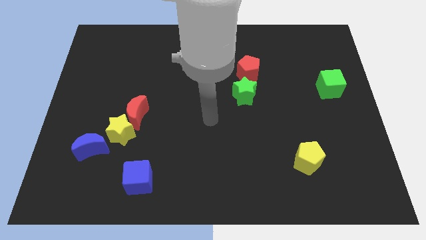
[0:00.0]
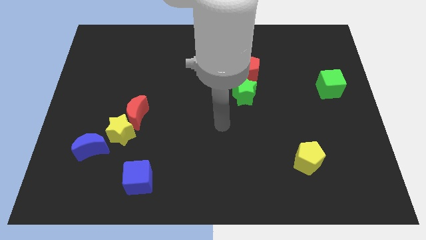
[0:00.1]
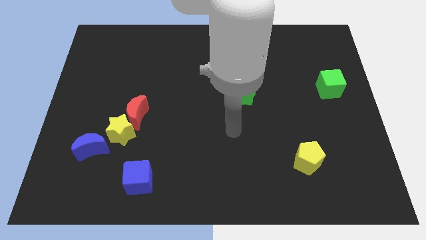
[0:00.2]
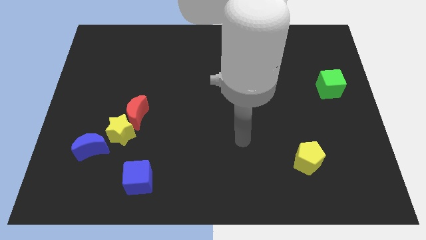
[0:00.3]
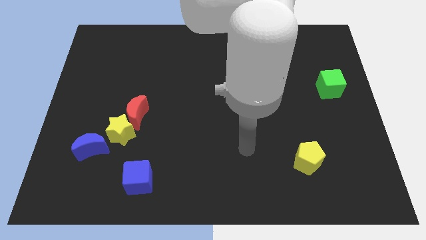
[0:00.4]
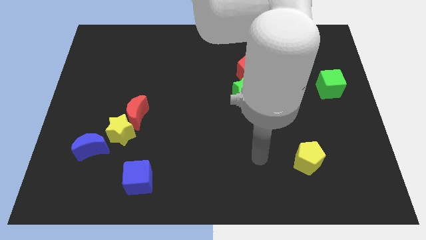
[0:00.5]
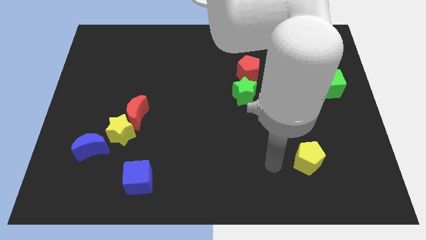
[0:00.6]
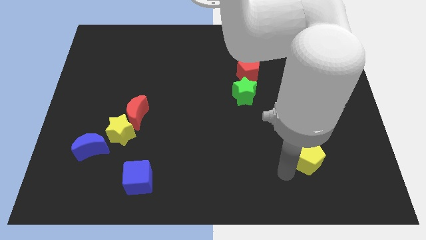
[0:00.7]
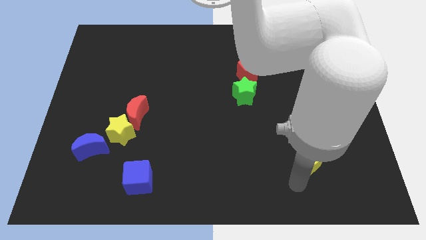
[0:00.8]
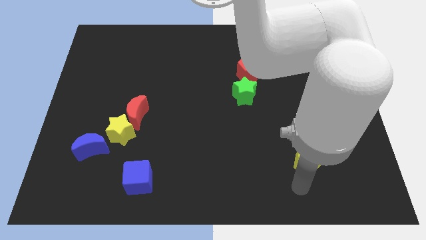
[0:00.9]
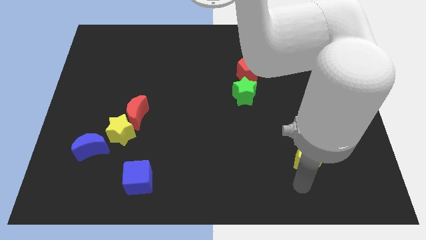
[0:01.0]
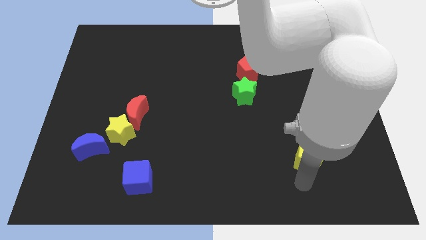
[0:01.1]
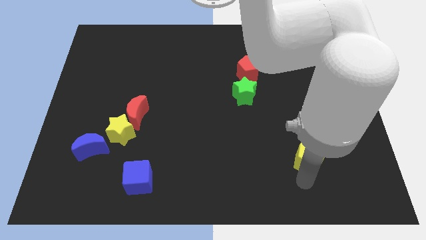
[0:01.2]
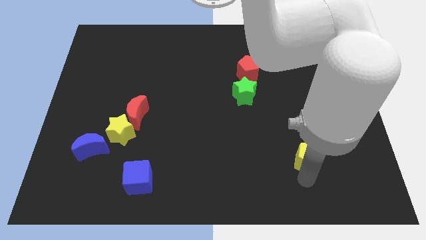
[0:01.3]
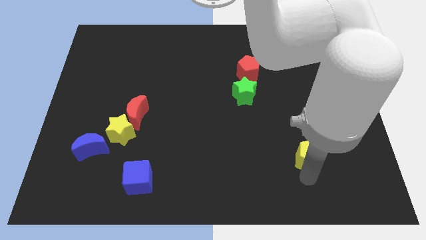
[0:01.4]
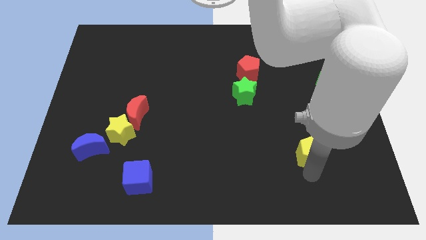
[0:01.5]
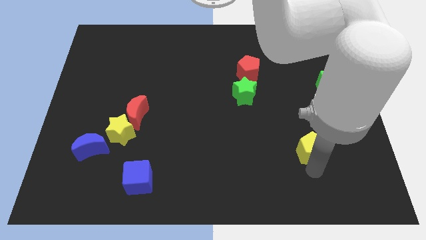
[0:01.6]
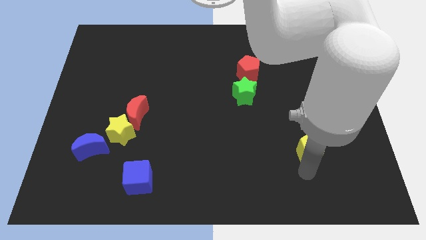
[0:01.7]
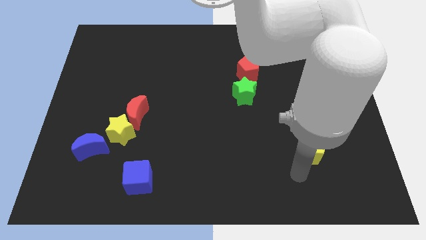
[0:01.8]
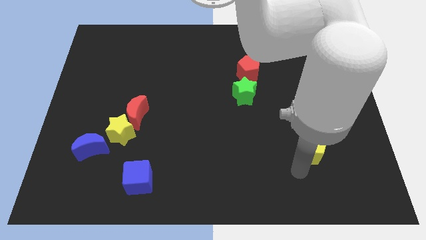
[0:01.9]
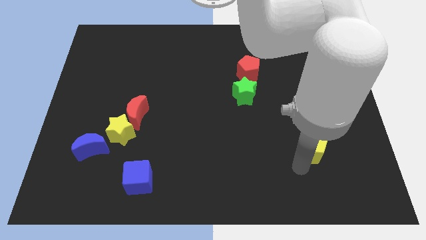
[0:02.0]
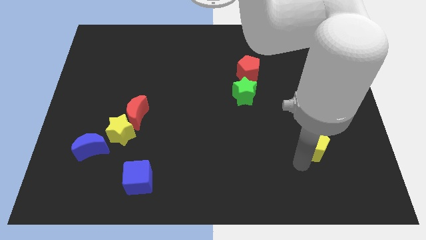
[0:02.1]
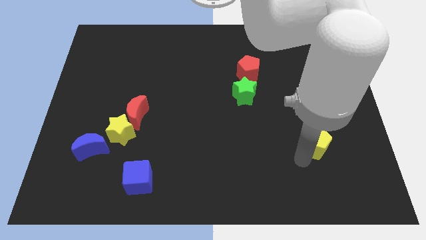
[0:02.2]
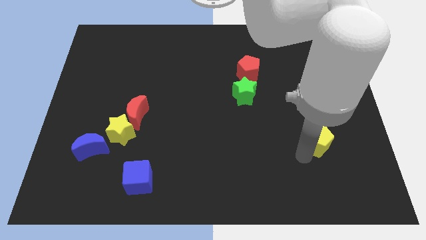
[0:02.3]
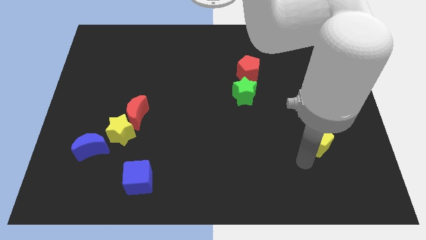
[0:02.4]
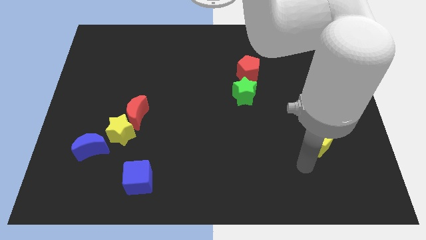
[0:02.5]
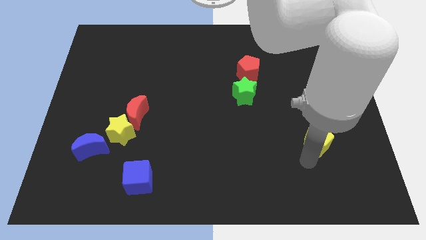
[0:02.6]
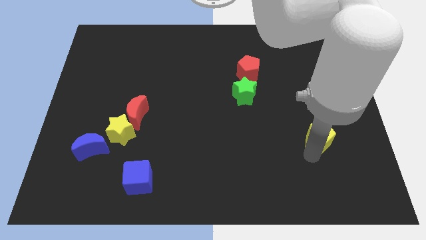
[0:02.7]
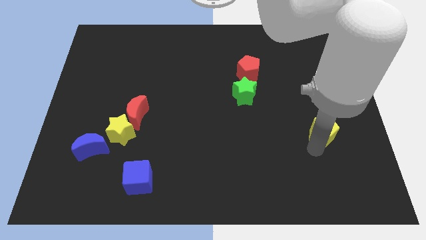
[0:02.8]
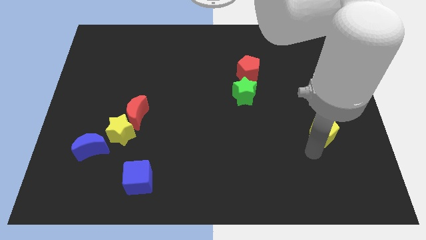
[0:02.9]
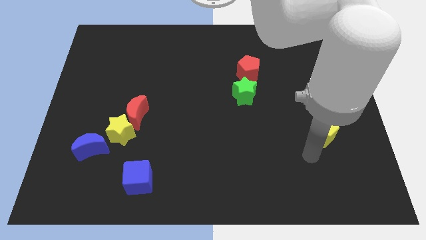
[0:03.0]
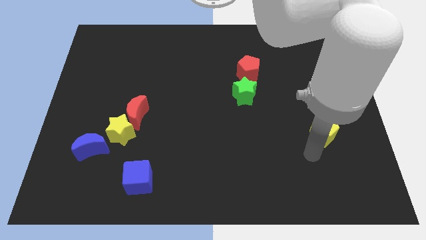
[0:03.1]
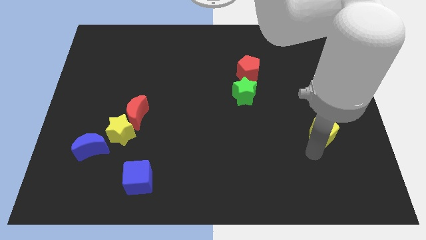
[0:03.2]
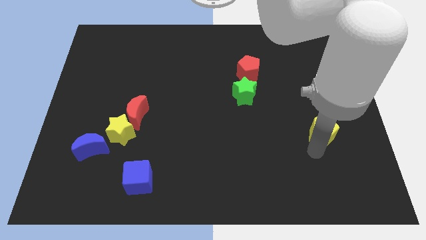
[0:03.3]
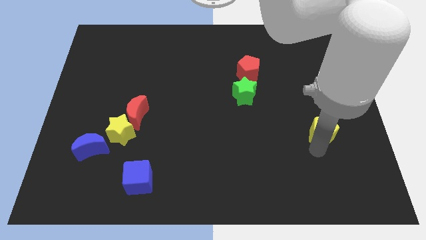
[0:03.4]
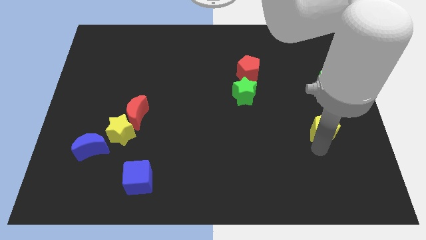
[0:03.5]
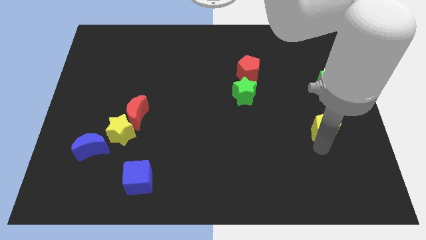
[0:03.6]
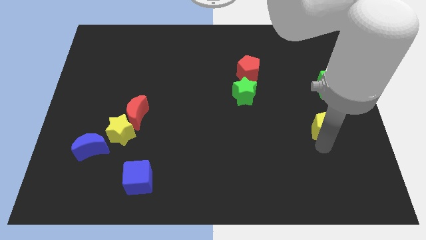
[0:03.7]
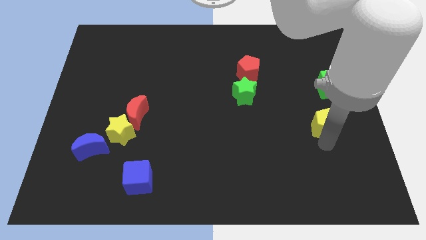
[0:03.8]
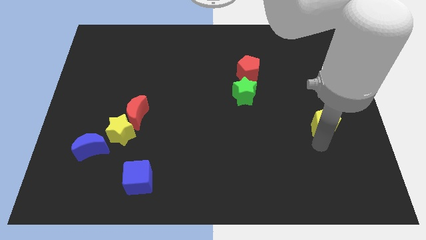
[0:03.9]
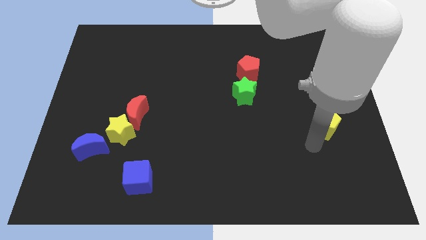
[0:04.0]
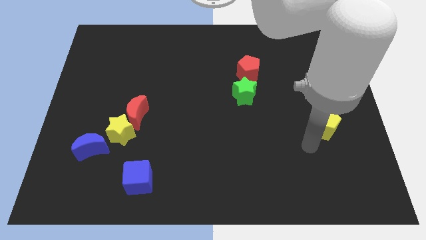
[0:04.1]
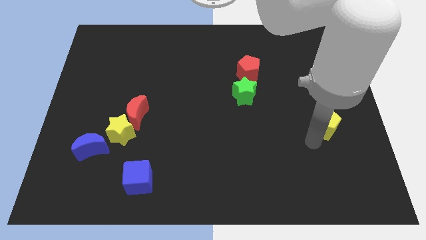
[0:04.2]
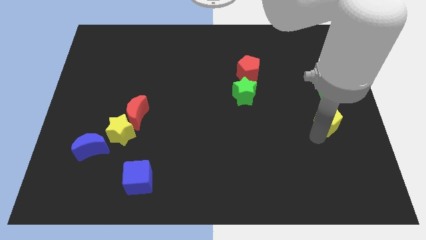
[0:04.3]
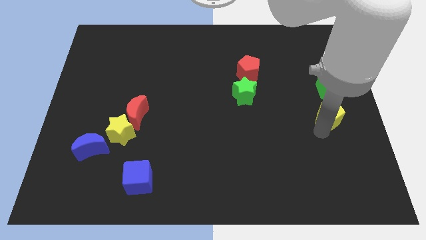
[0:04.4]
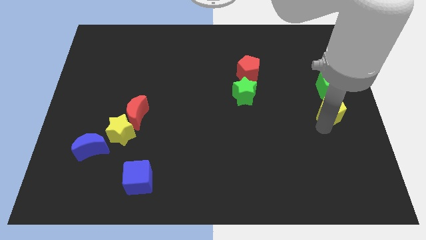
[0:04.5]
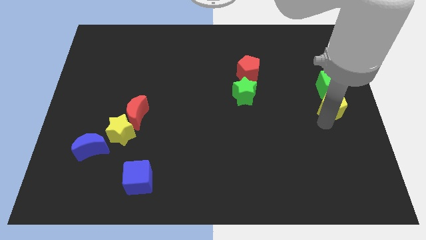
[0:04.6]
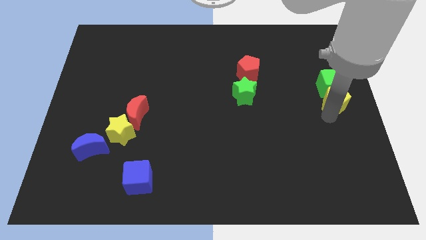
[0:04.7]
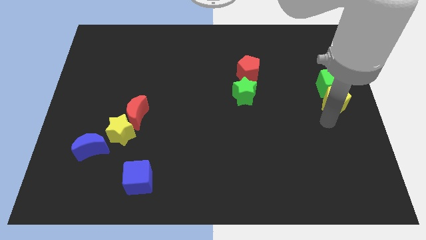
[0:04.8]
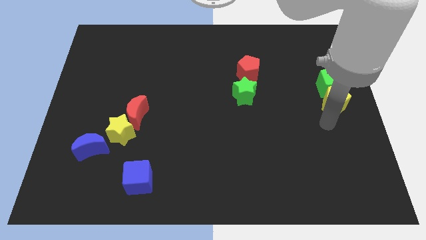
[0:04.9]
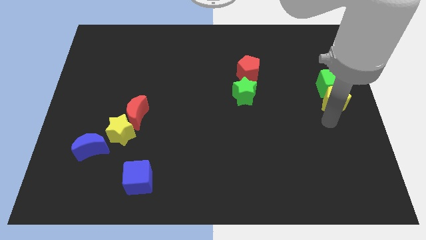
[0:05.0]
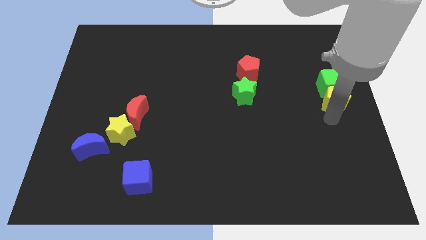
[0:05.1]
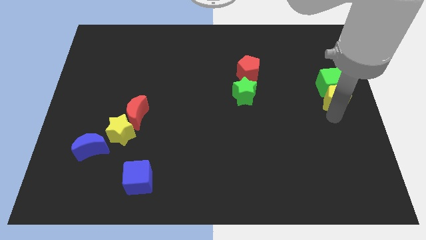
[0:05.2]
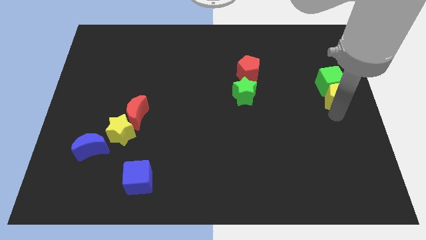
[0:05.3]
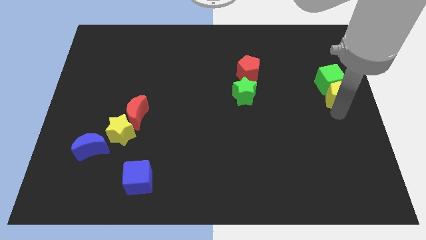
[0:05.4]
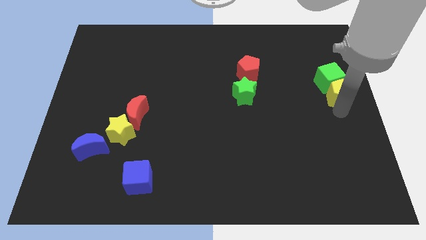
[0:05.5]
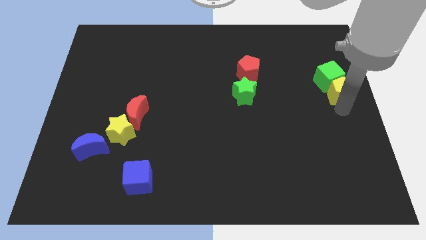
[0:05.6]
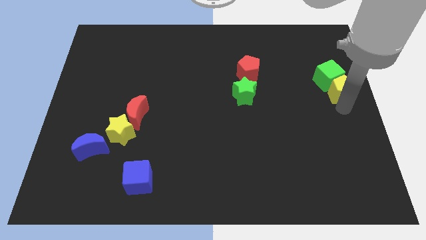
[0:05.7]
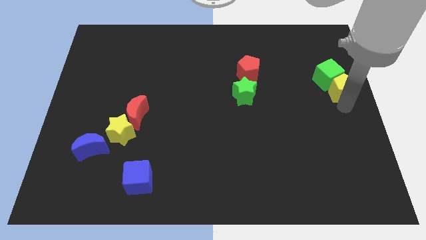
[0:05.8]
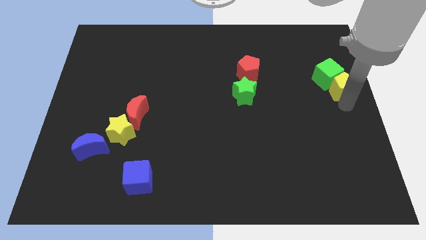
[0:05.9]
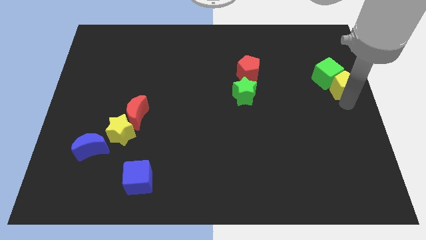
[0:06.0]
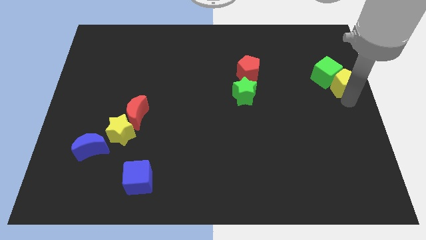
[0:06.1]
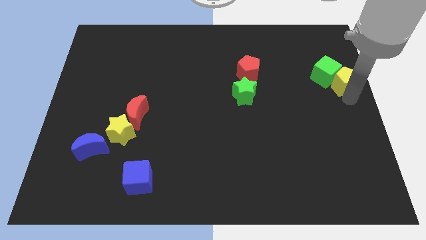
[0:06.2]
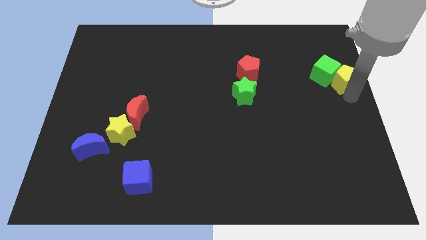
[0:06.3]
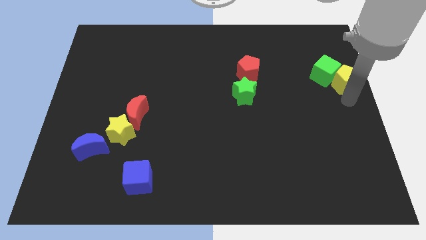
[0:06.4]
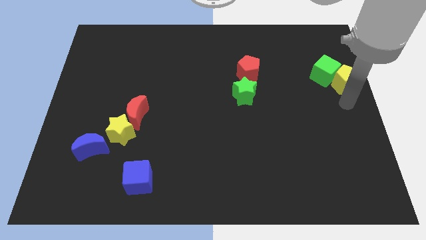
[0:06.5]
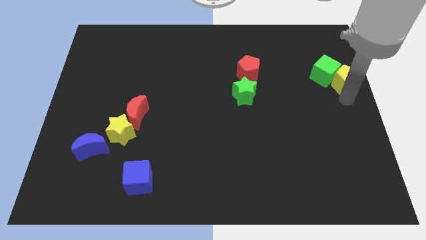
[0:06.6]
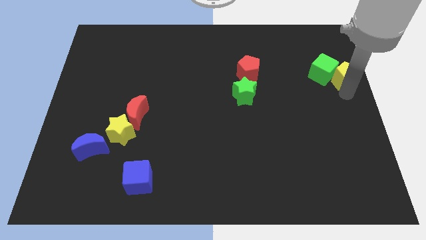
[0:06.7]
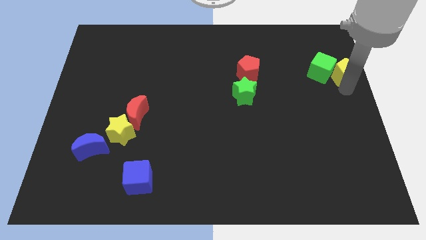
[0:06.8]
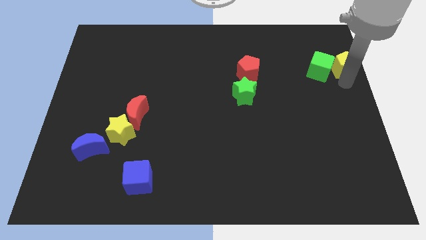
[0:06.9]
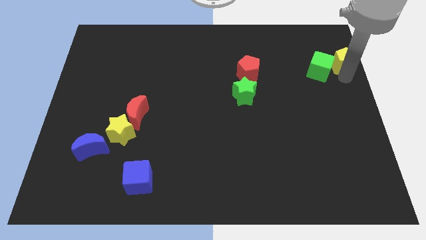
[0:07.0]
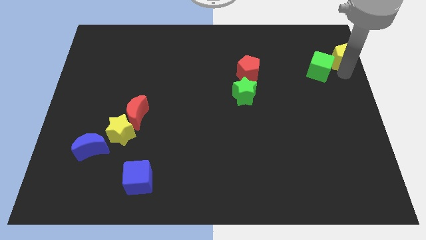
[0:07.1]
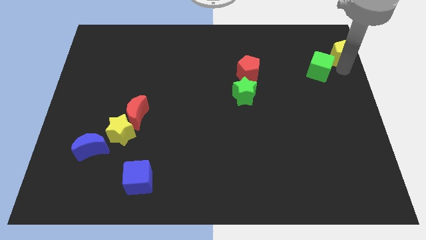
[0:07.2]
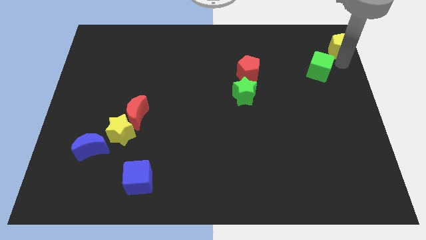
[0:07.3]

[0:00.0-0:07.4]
put the yellow pentagon to the upper right corner
